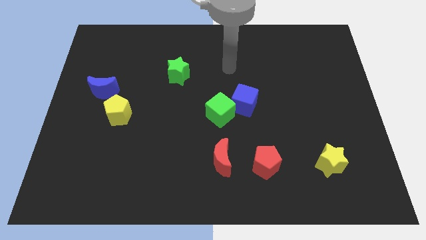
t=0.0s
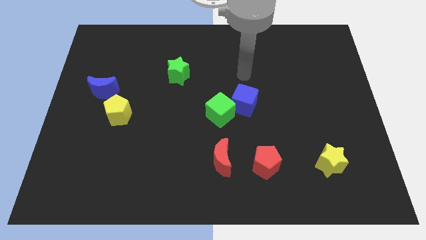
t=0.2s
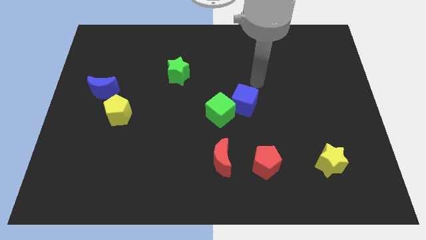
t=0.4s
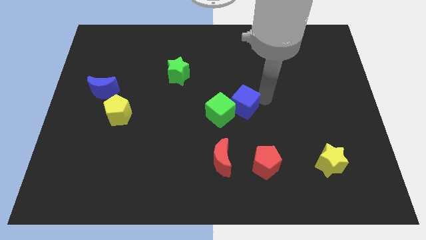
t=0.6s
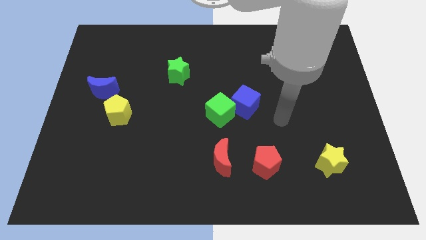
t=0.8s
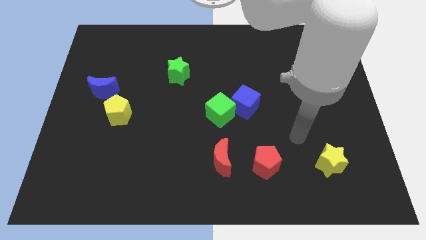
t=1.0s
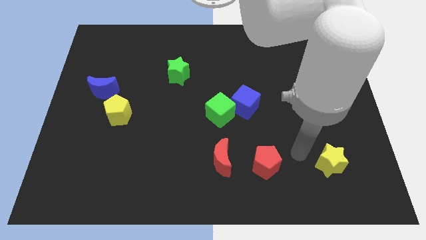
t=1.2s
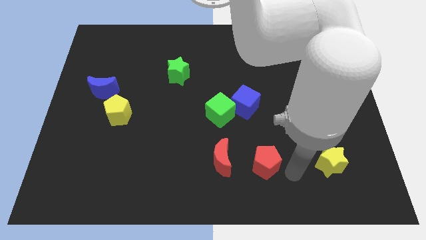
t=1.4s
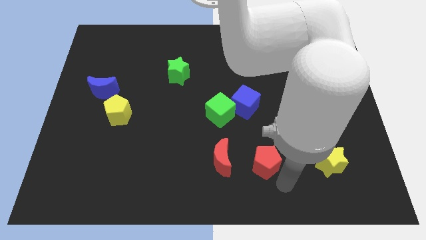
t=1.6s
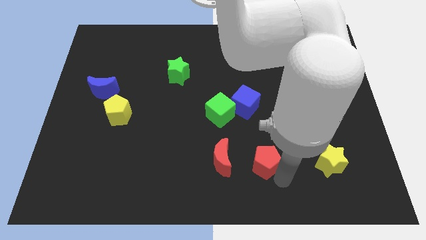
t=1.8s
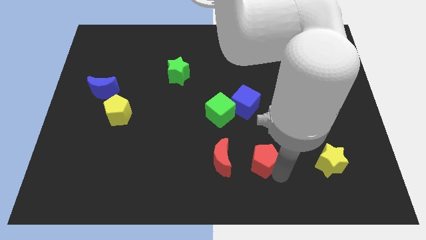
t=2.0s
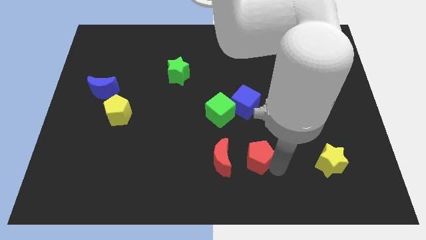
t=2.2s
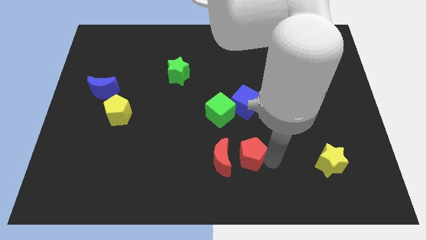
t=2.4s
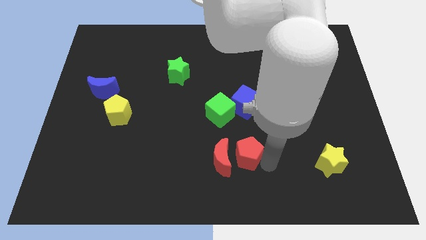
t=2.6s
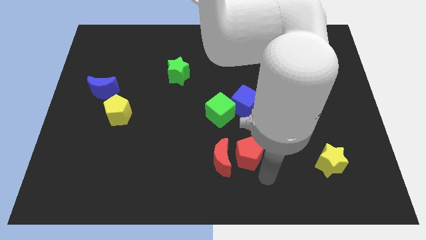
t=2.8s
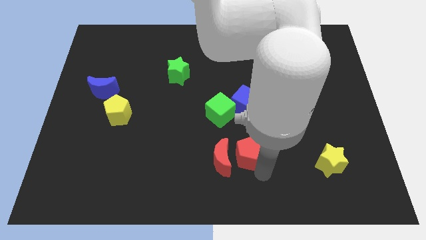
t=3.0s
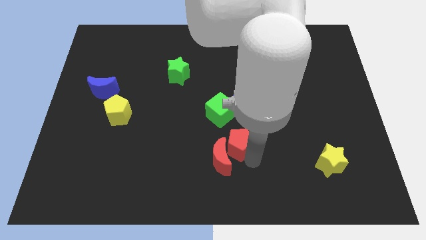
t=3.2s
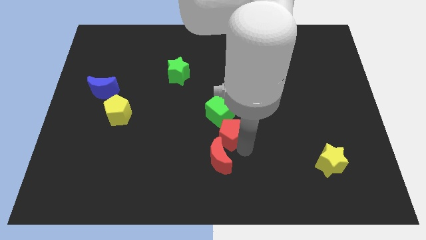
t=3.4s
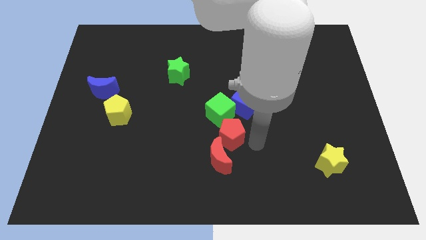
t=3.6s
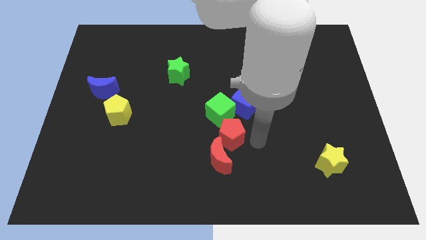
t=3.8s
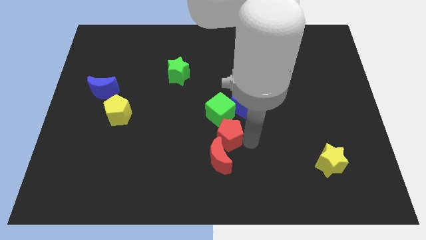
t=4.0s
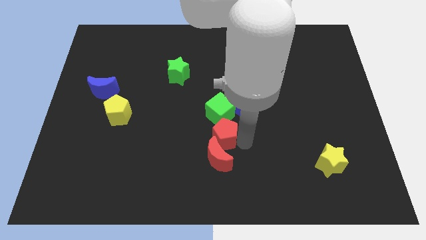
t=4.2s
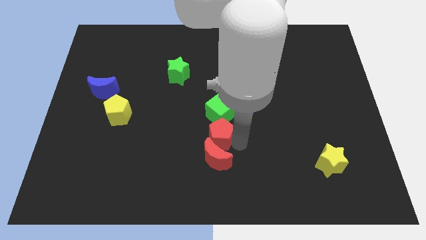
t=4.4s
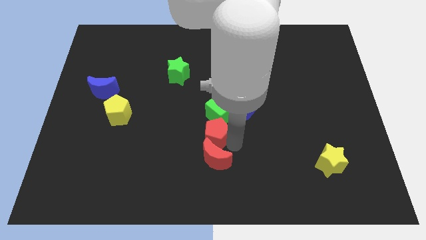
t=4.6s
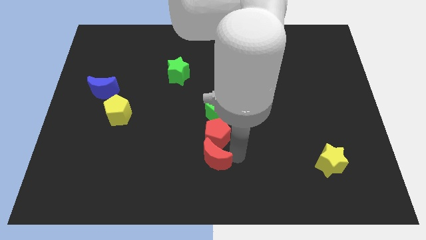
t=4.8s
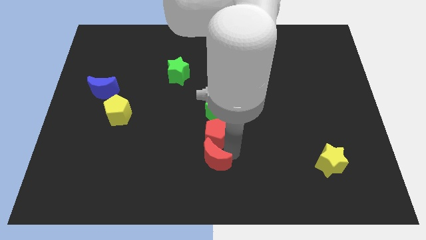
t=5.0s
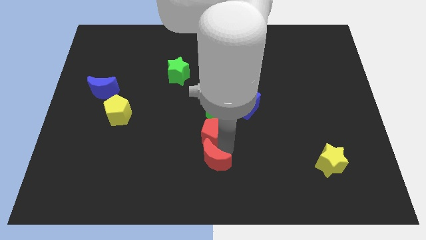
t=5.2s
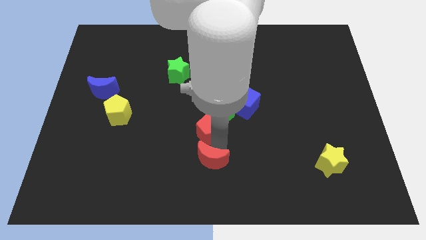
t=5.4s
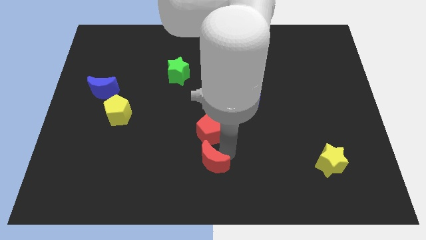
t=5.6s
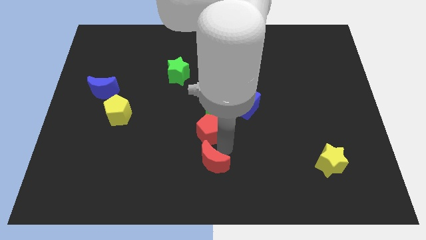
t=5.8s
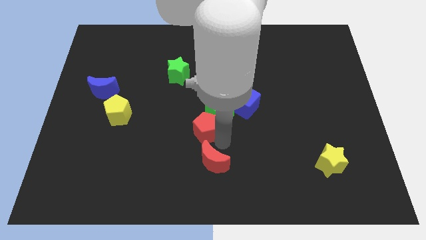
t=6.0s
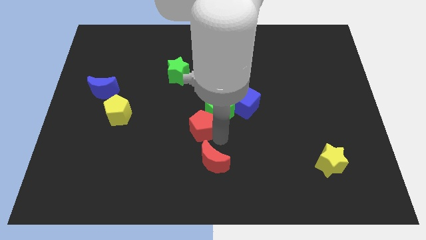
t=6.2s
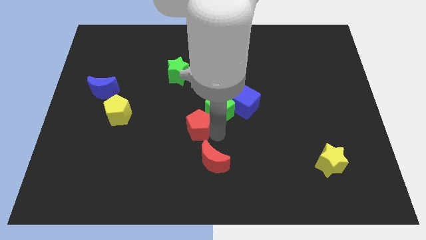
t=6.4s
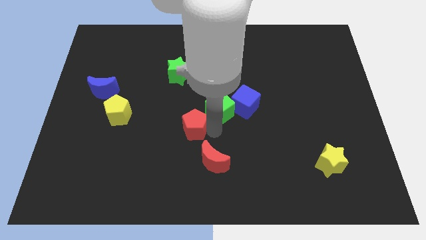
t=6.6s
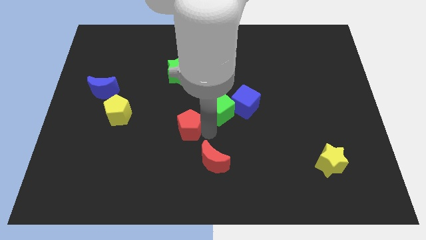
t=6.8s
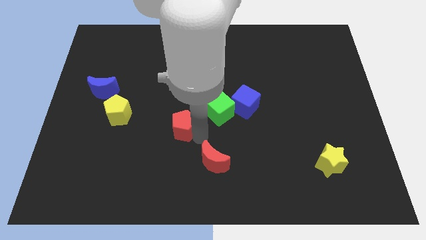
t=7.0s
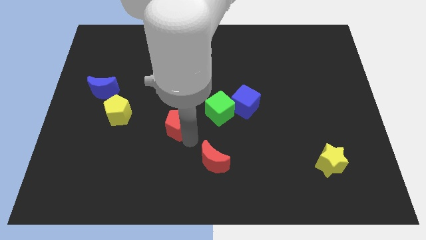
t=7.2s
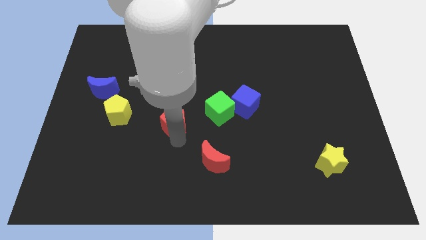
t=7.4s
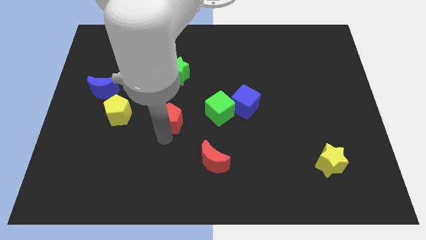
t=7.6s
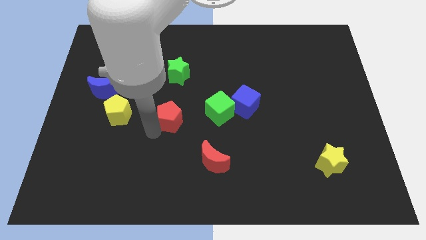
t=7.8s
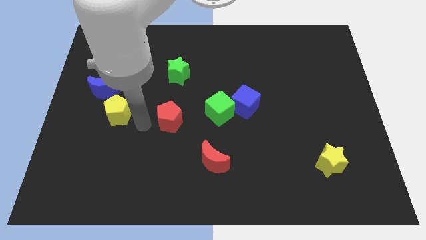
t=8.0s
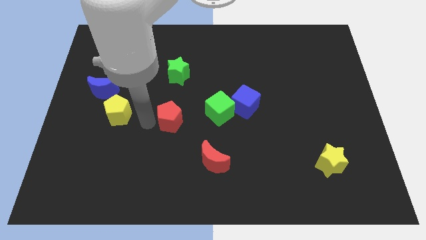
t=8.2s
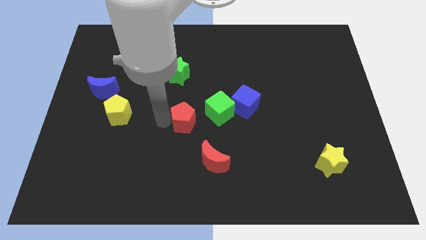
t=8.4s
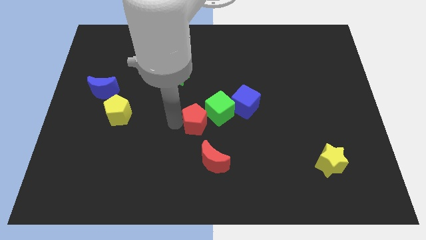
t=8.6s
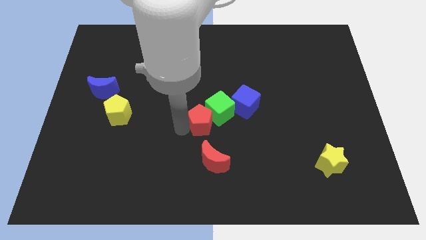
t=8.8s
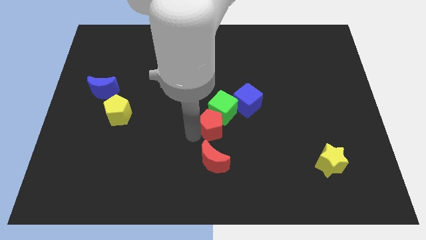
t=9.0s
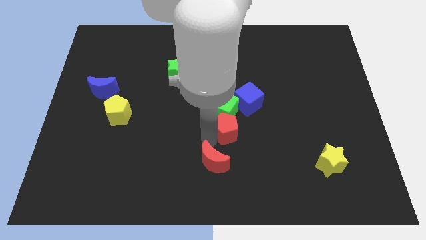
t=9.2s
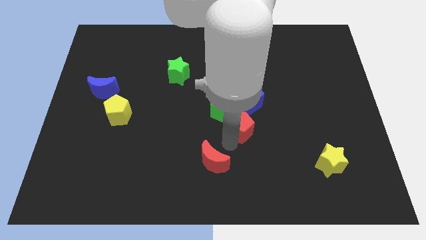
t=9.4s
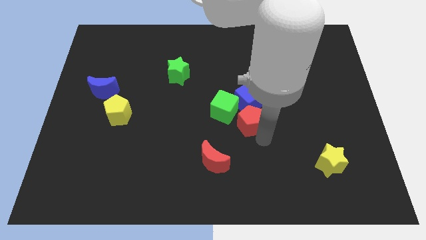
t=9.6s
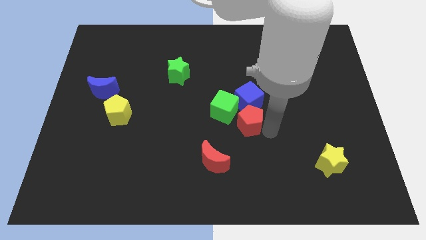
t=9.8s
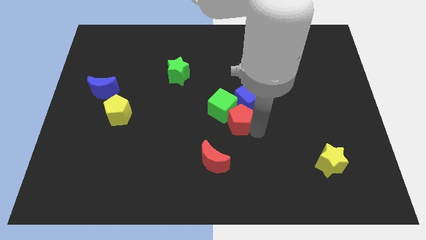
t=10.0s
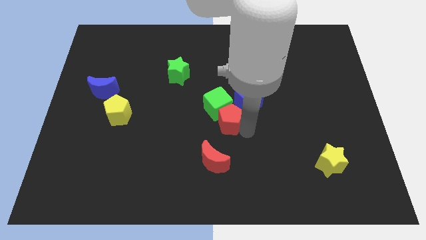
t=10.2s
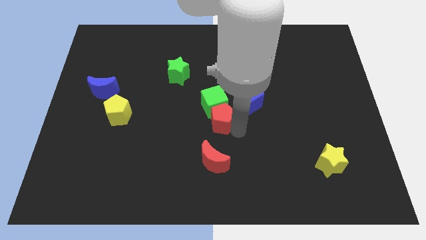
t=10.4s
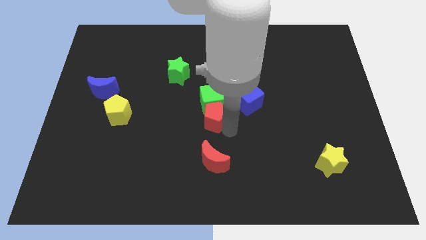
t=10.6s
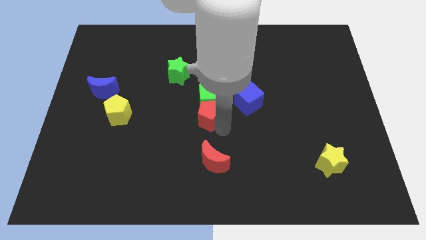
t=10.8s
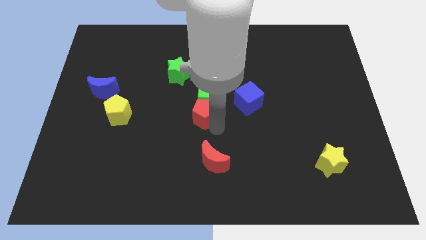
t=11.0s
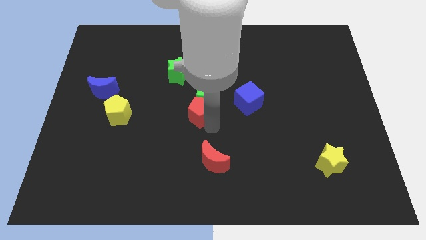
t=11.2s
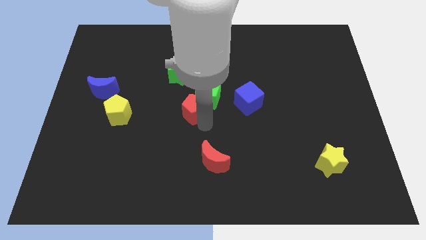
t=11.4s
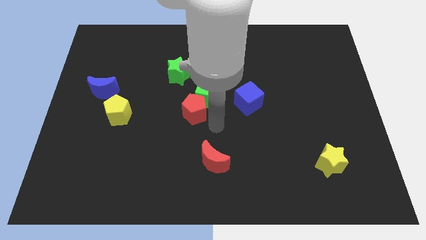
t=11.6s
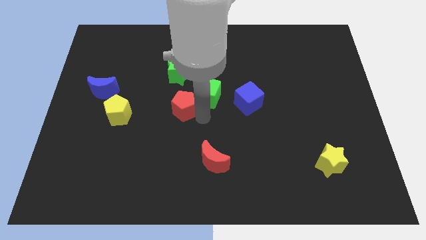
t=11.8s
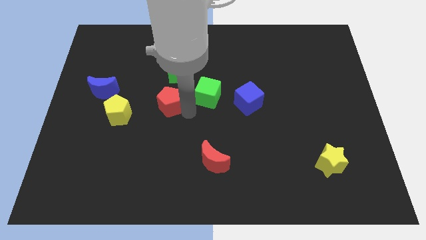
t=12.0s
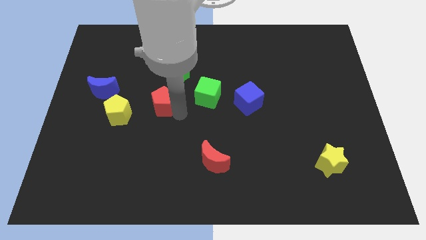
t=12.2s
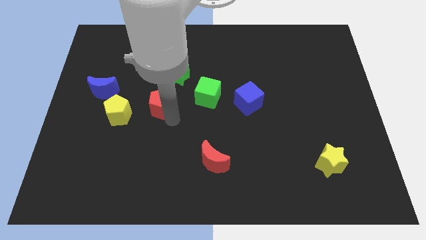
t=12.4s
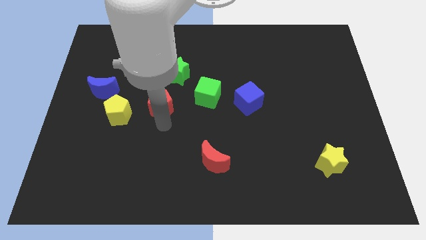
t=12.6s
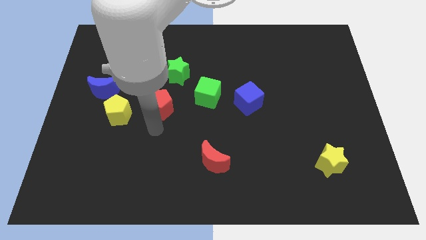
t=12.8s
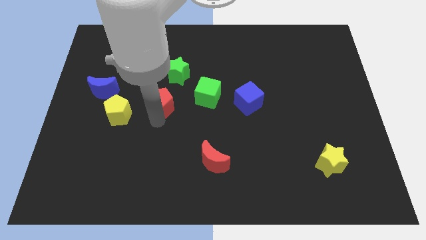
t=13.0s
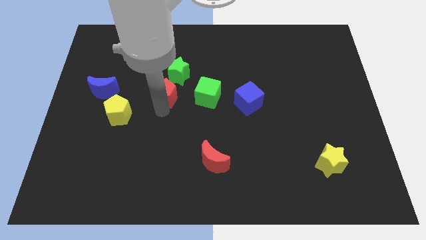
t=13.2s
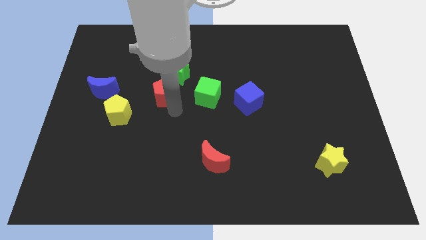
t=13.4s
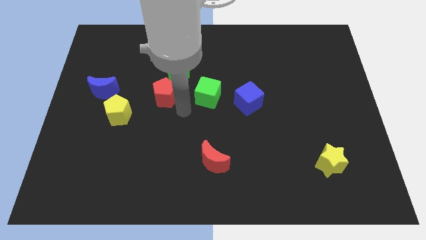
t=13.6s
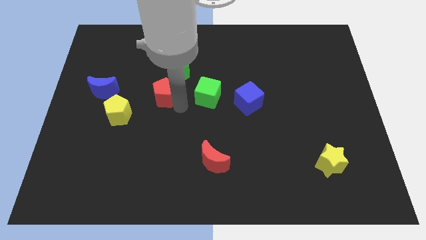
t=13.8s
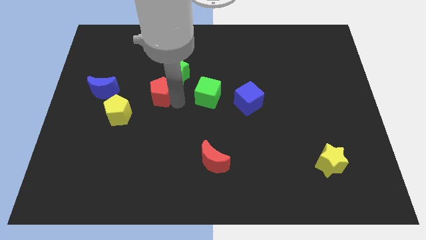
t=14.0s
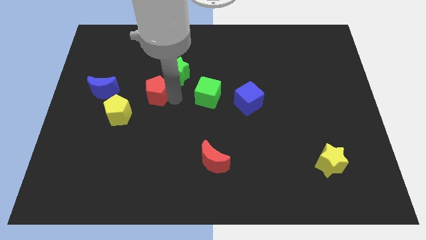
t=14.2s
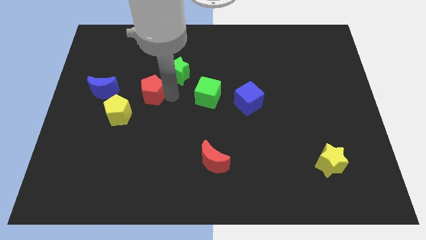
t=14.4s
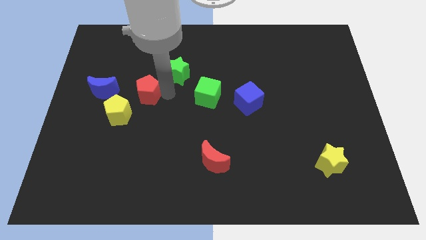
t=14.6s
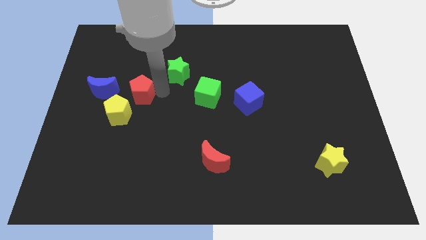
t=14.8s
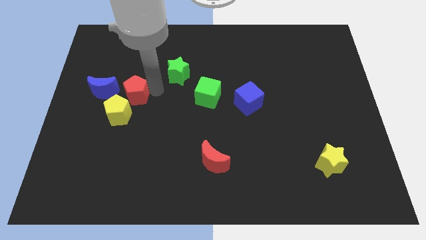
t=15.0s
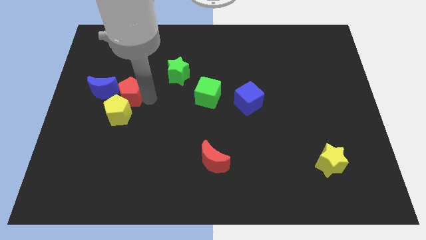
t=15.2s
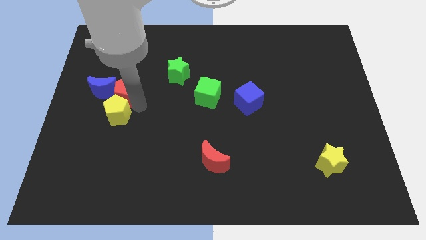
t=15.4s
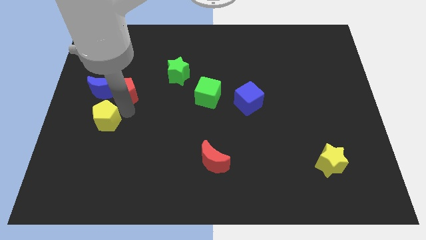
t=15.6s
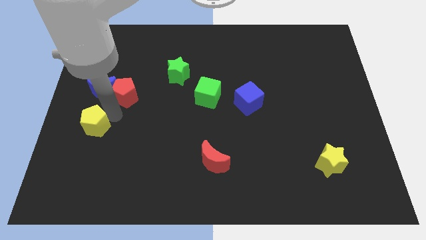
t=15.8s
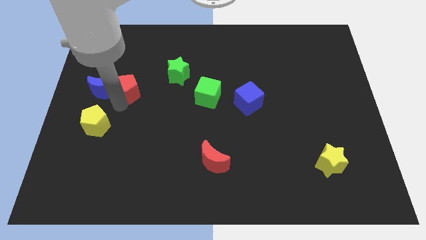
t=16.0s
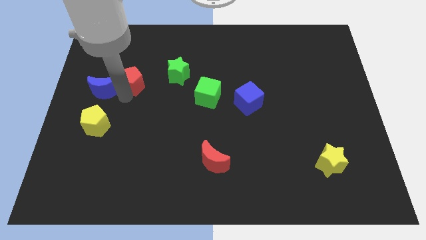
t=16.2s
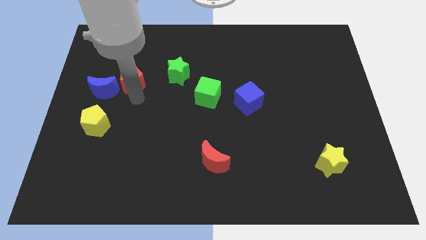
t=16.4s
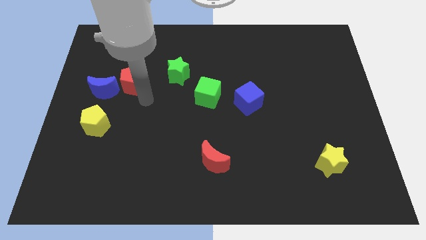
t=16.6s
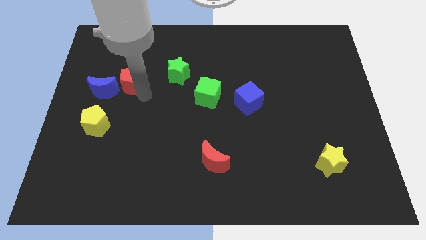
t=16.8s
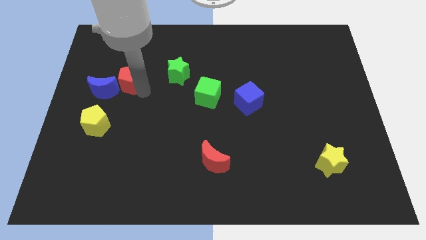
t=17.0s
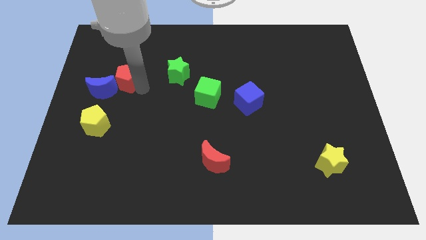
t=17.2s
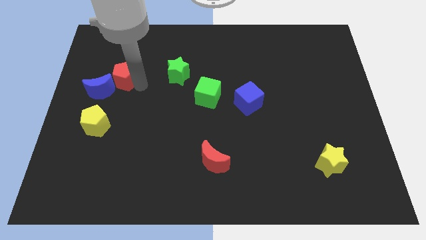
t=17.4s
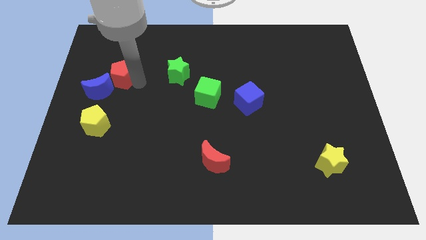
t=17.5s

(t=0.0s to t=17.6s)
push the red pentagon above the blue moon
